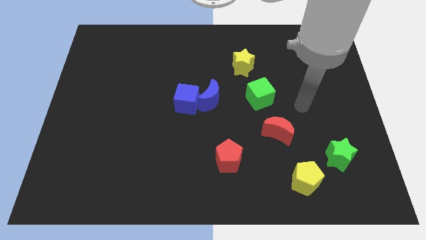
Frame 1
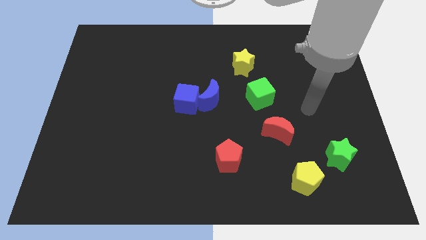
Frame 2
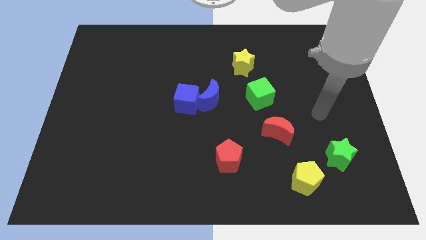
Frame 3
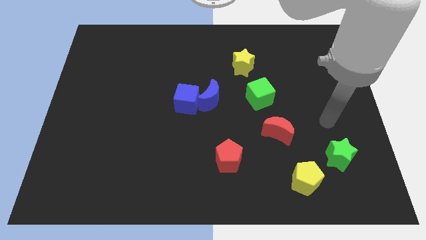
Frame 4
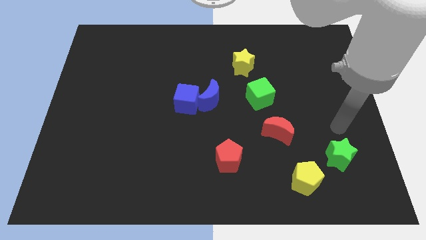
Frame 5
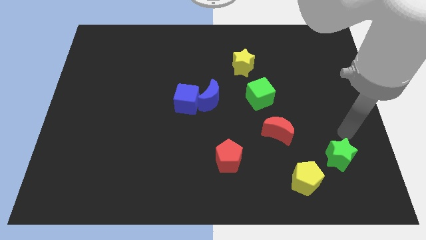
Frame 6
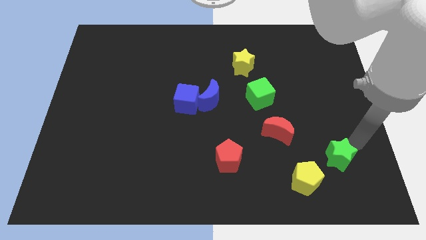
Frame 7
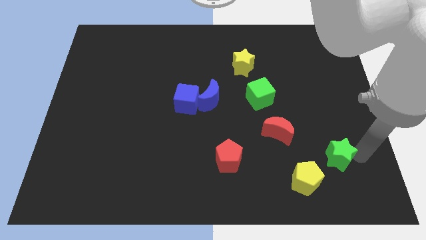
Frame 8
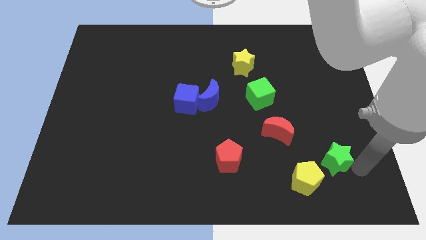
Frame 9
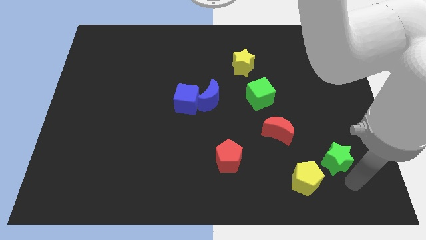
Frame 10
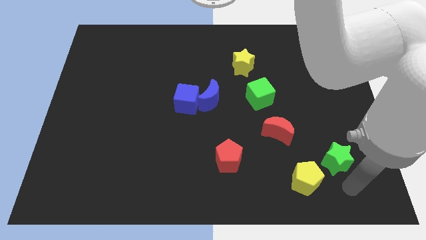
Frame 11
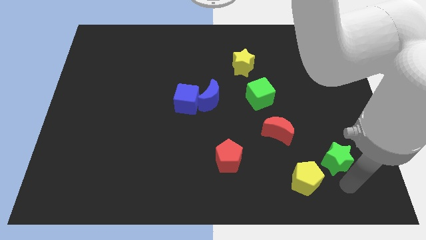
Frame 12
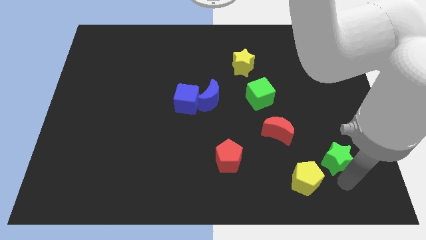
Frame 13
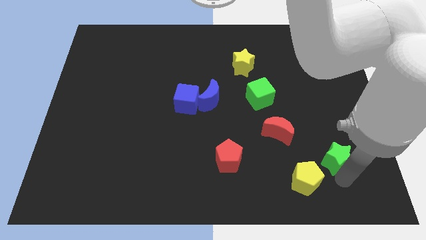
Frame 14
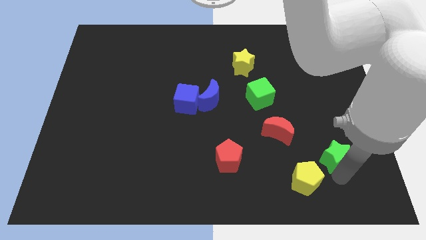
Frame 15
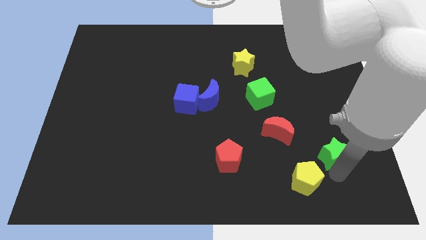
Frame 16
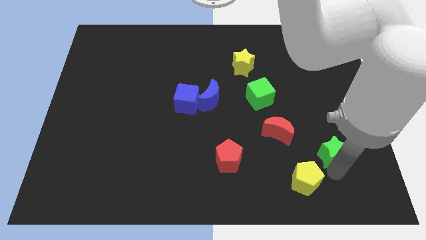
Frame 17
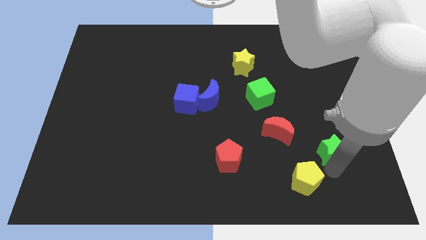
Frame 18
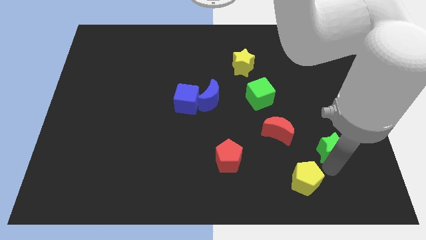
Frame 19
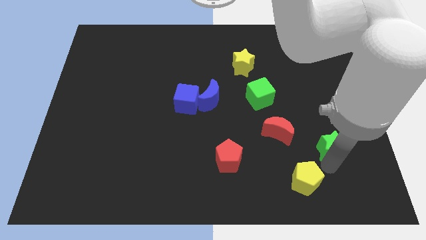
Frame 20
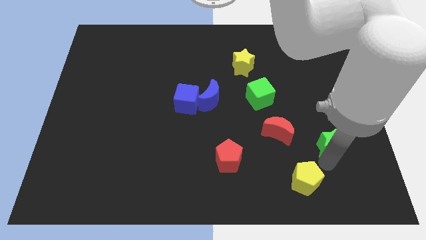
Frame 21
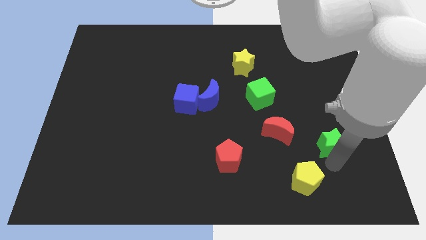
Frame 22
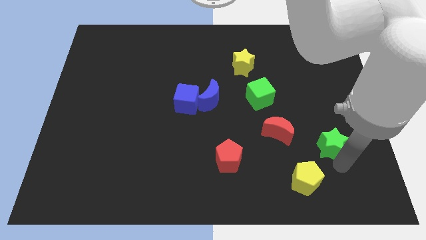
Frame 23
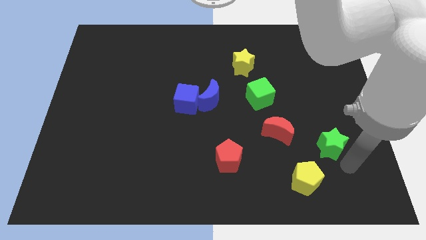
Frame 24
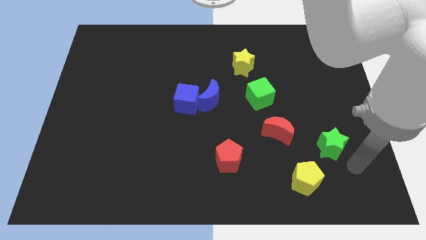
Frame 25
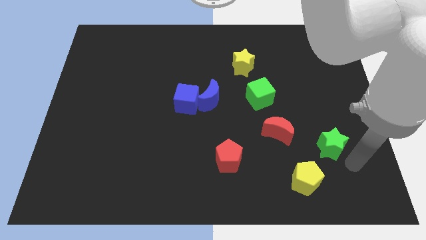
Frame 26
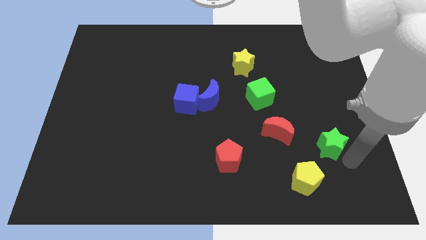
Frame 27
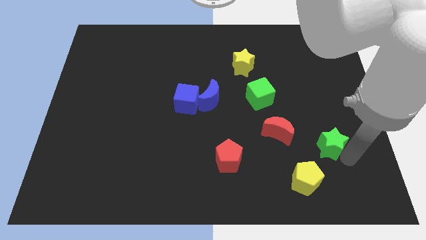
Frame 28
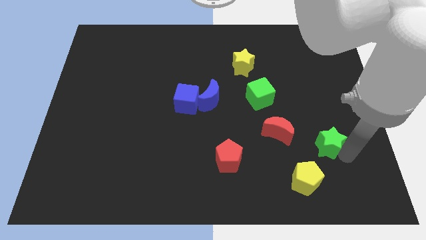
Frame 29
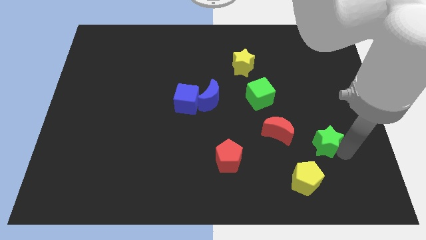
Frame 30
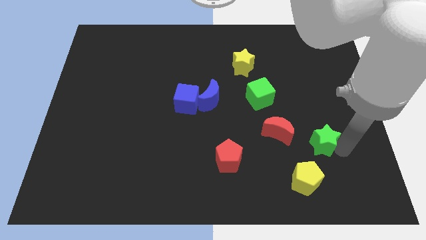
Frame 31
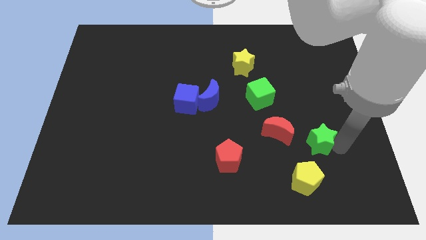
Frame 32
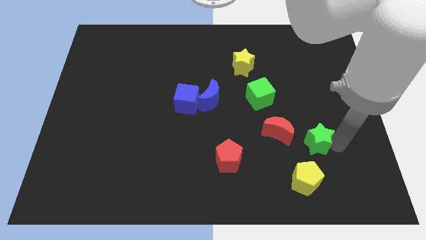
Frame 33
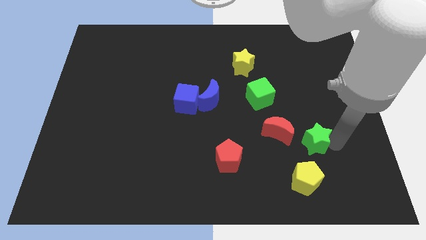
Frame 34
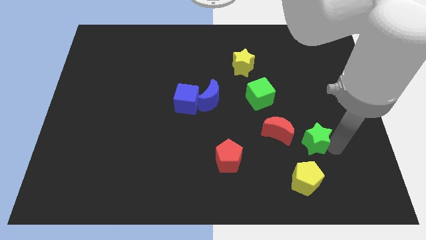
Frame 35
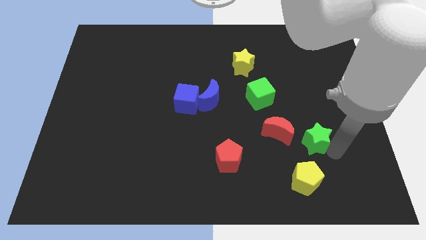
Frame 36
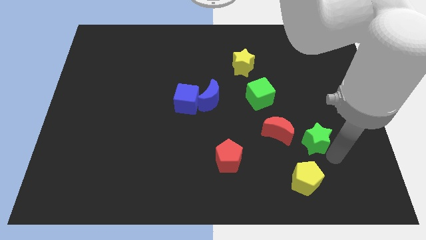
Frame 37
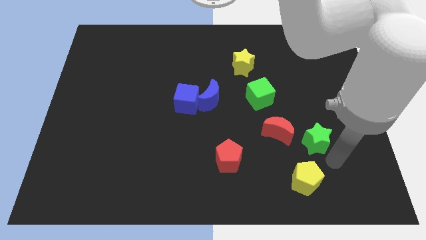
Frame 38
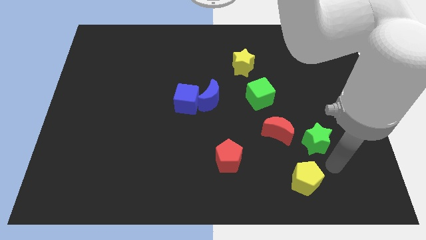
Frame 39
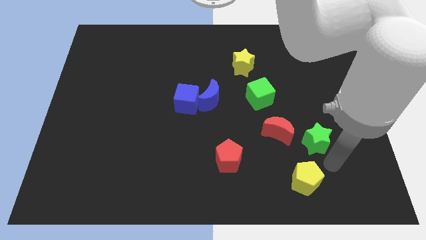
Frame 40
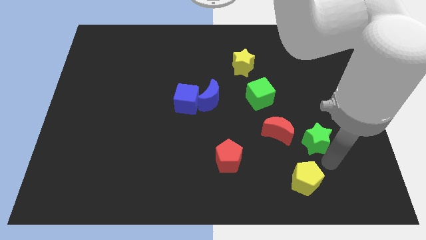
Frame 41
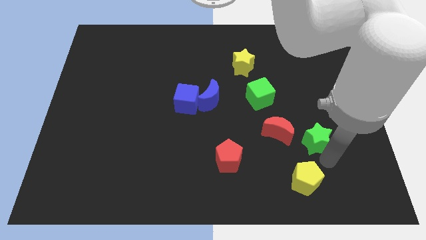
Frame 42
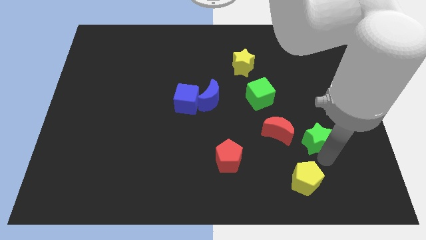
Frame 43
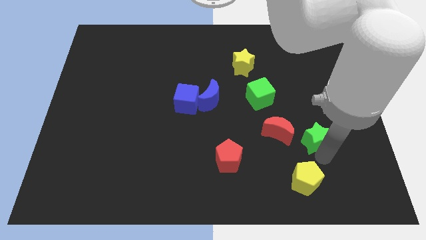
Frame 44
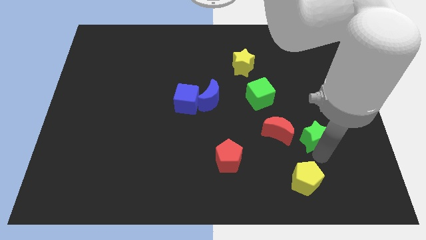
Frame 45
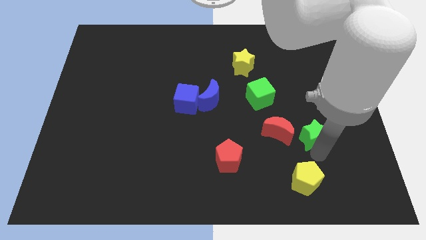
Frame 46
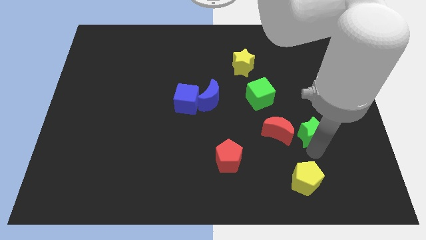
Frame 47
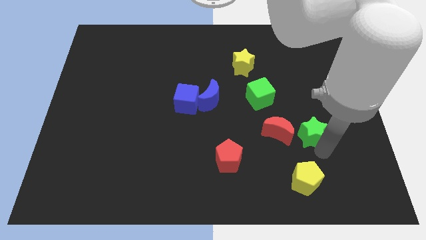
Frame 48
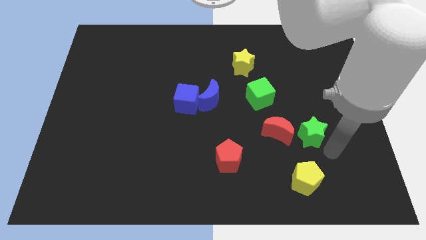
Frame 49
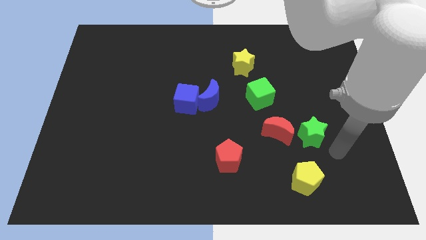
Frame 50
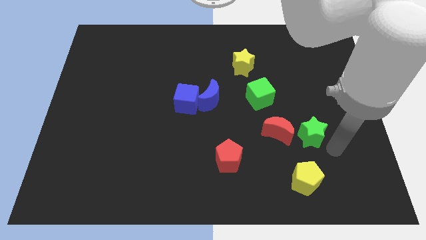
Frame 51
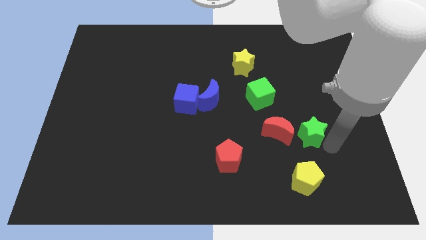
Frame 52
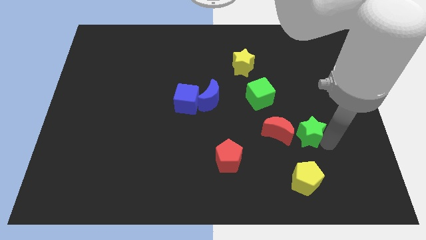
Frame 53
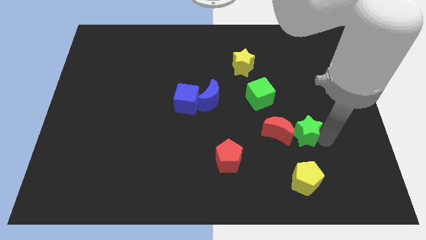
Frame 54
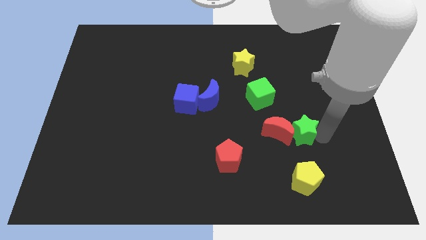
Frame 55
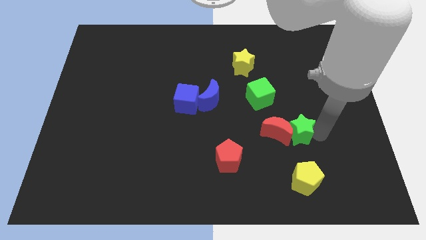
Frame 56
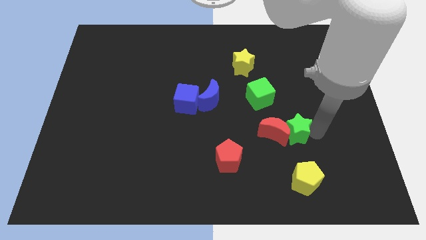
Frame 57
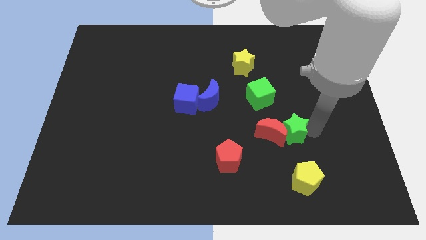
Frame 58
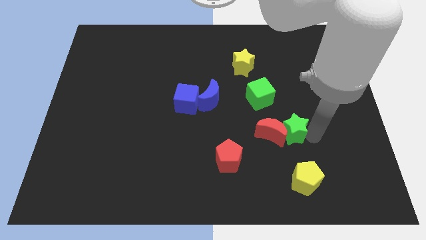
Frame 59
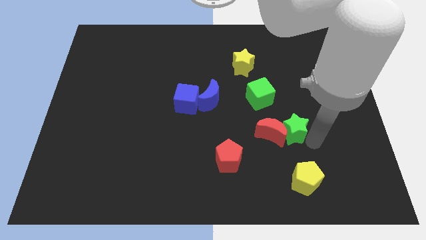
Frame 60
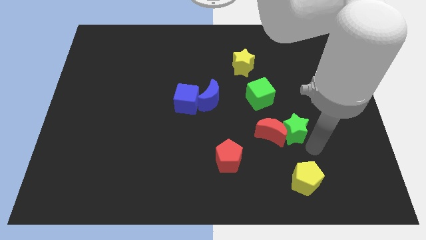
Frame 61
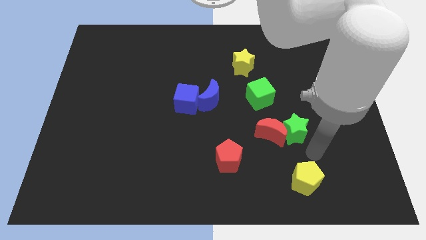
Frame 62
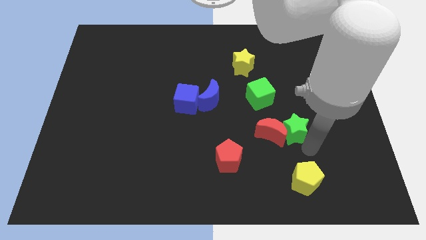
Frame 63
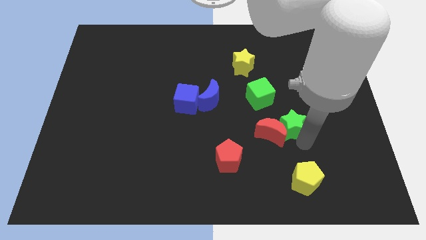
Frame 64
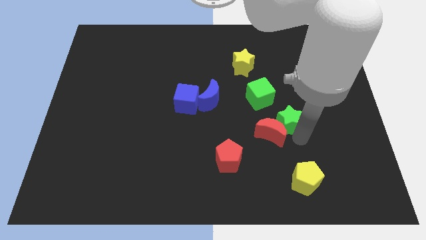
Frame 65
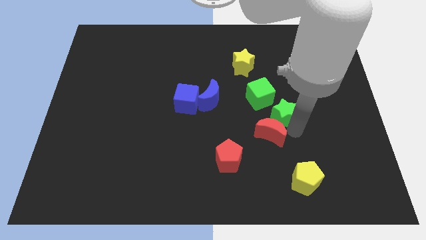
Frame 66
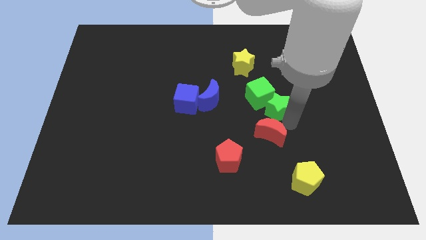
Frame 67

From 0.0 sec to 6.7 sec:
push the green star close to the green cube

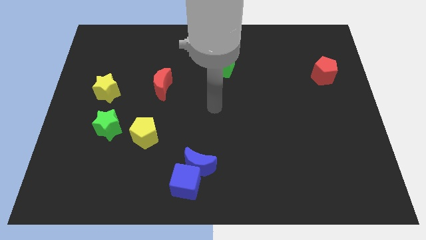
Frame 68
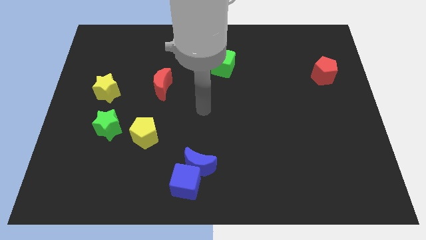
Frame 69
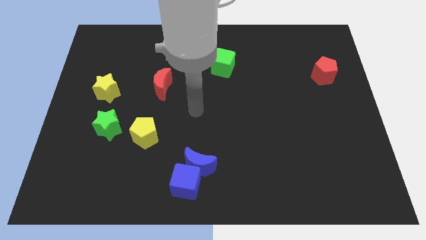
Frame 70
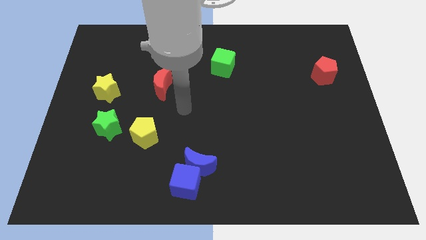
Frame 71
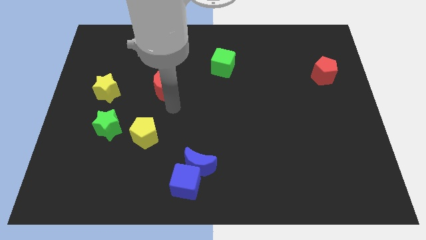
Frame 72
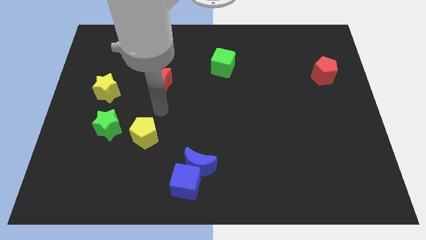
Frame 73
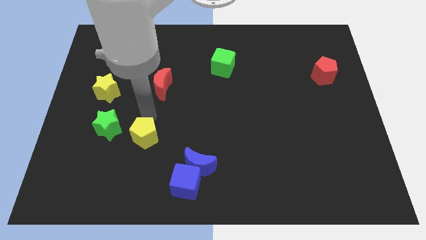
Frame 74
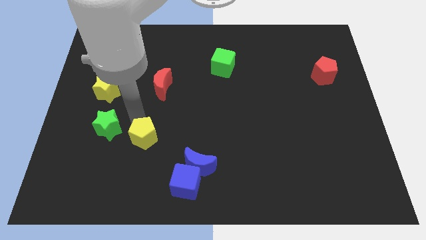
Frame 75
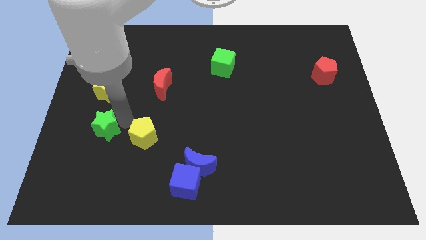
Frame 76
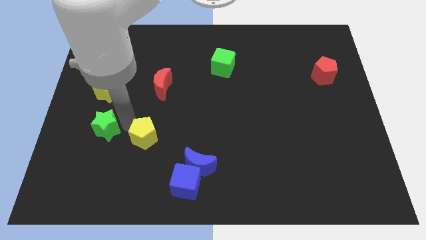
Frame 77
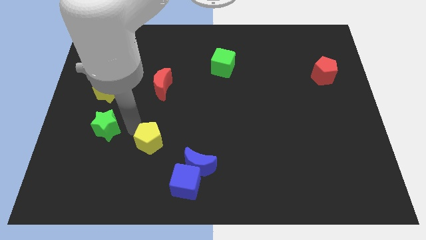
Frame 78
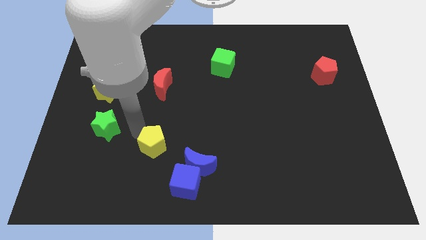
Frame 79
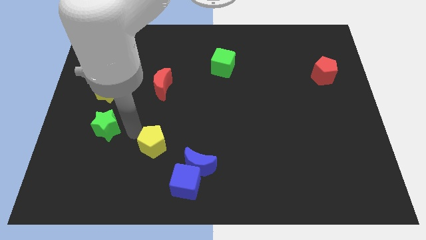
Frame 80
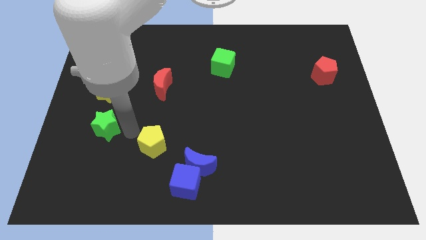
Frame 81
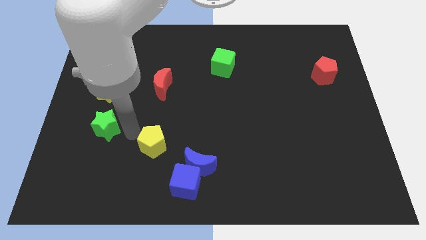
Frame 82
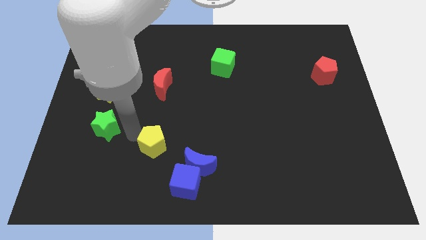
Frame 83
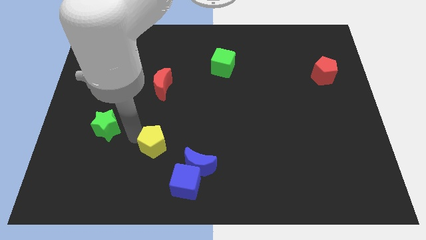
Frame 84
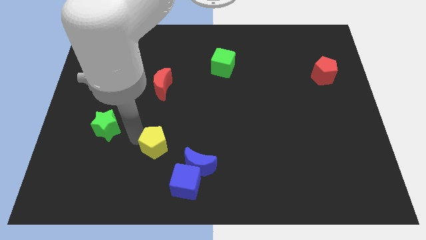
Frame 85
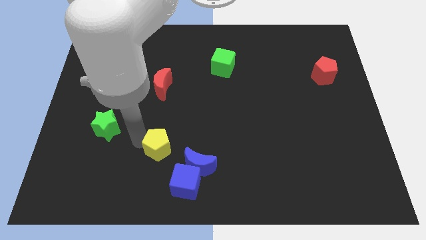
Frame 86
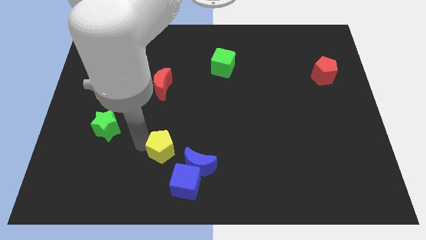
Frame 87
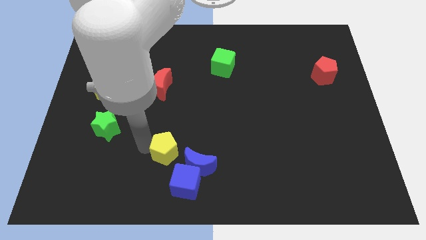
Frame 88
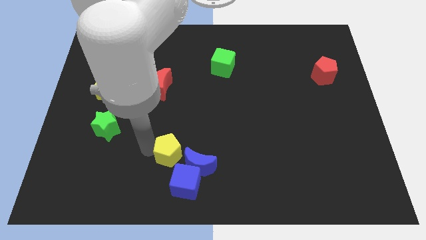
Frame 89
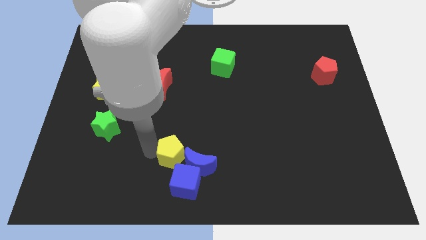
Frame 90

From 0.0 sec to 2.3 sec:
slide the yellow pentagon to the blue moon
